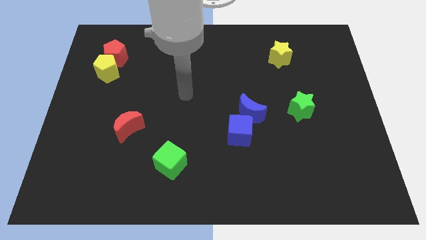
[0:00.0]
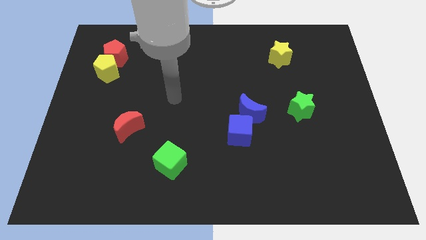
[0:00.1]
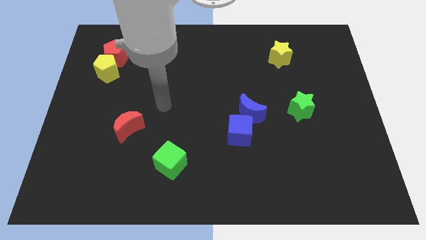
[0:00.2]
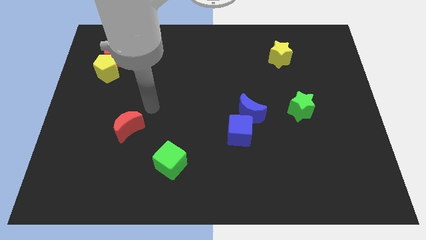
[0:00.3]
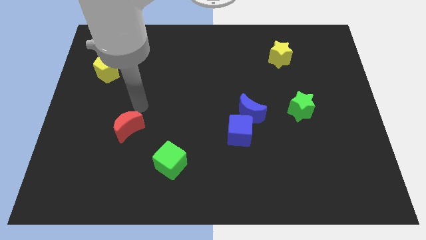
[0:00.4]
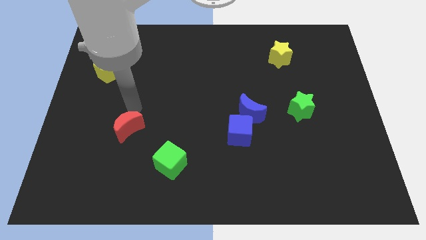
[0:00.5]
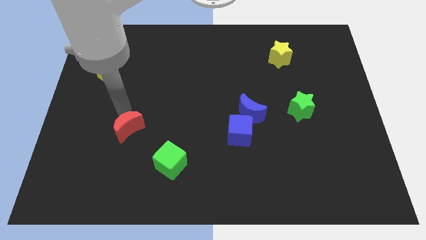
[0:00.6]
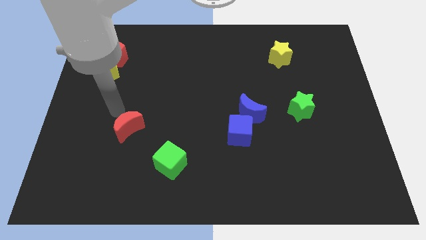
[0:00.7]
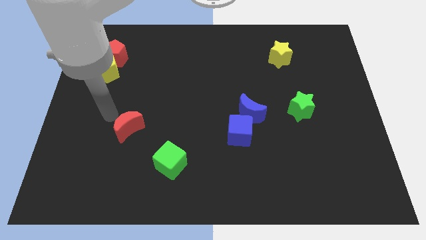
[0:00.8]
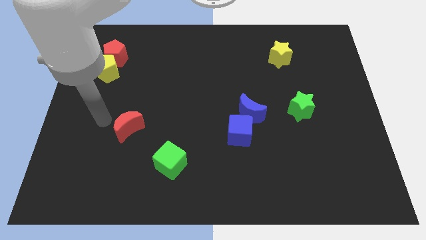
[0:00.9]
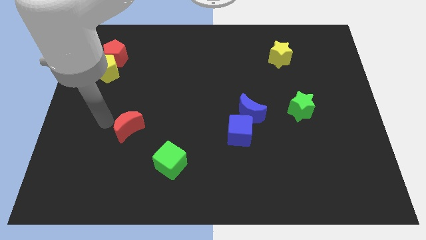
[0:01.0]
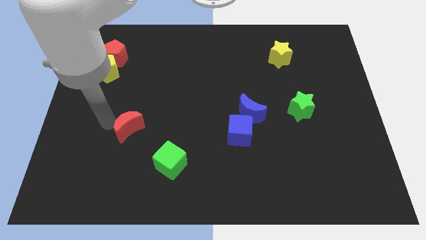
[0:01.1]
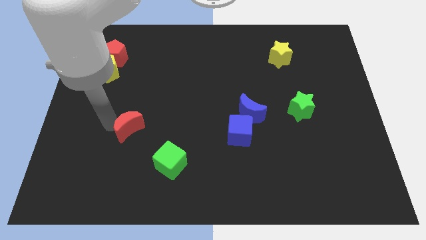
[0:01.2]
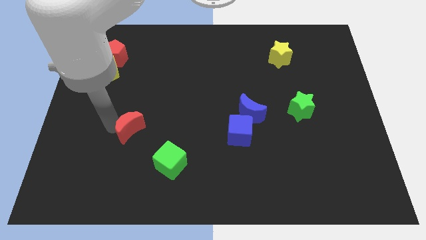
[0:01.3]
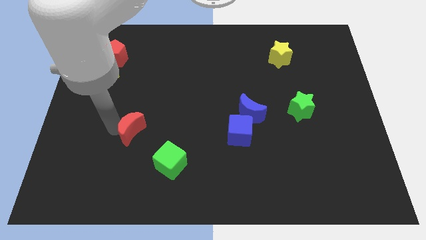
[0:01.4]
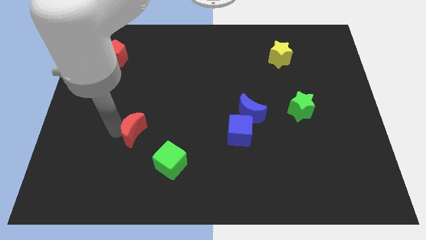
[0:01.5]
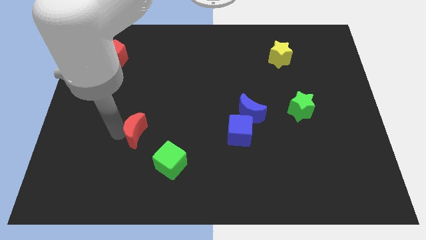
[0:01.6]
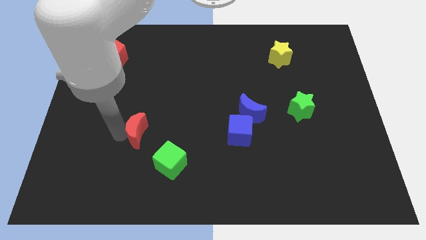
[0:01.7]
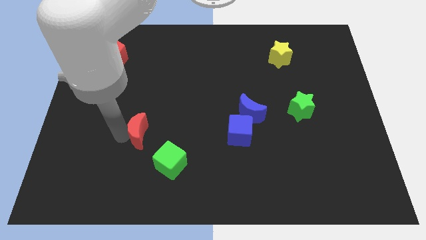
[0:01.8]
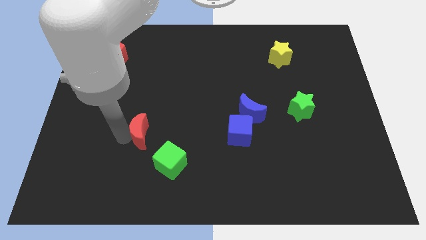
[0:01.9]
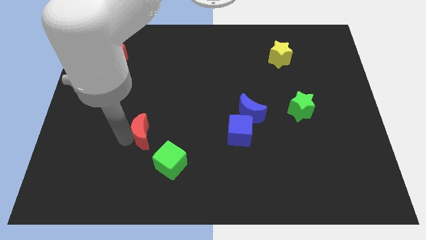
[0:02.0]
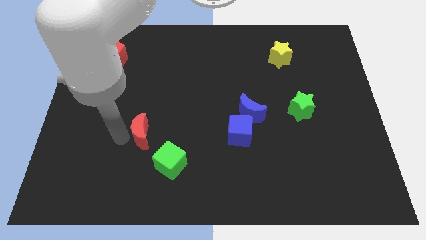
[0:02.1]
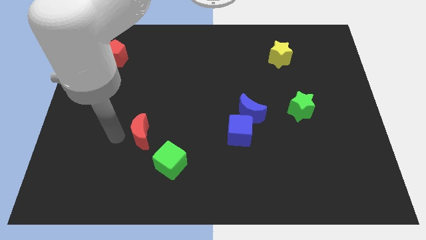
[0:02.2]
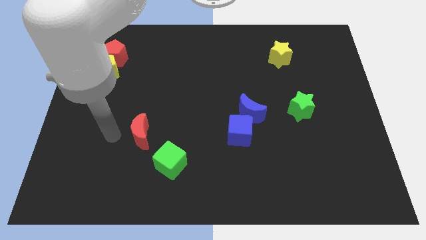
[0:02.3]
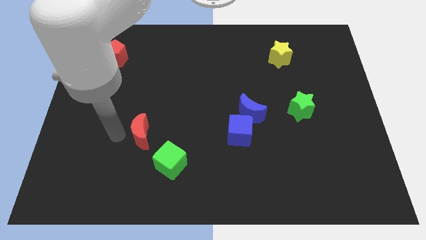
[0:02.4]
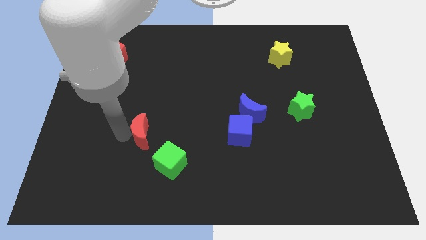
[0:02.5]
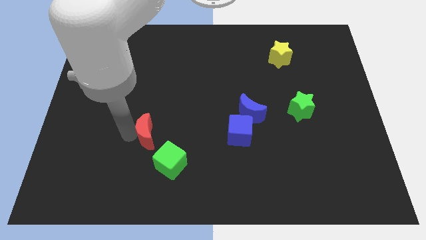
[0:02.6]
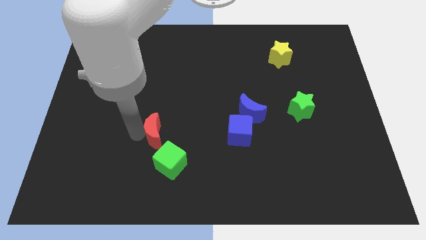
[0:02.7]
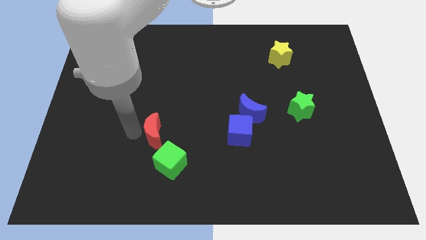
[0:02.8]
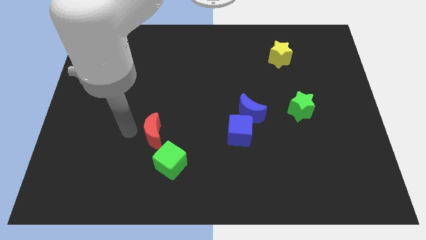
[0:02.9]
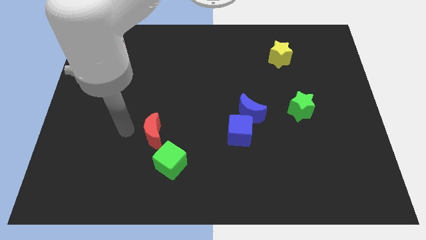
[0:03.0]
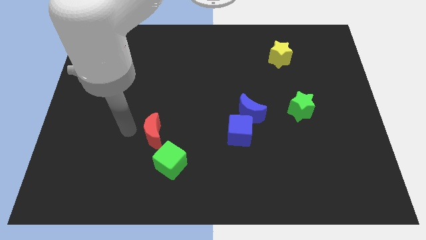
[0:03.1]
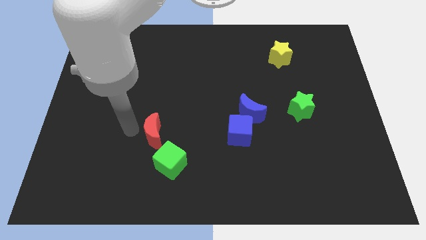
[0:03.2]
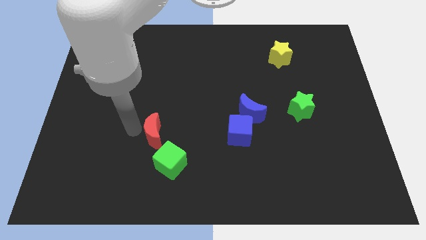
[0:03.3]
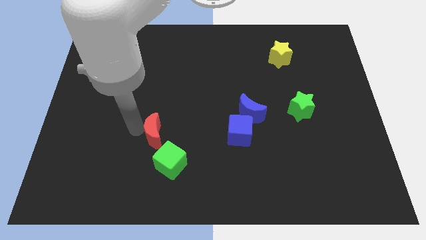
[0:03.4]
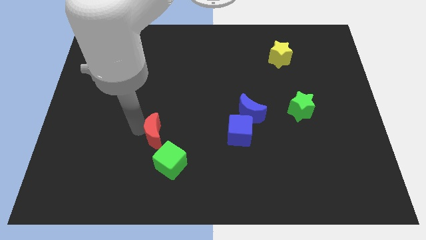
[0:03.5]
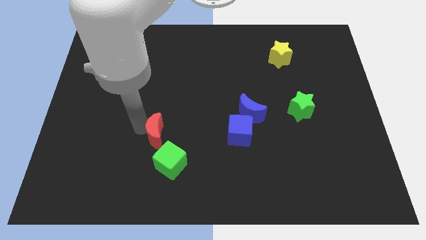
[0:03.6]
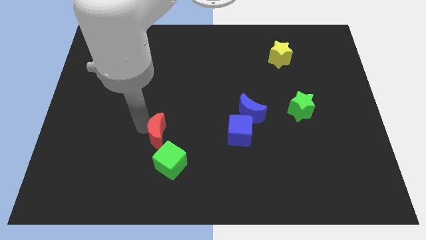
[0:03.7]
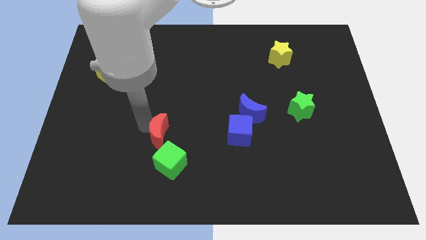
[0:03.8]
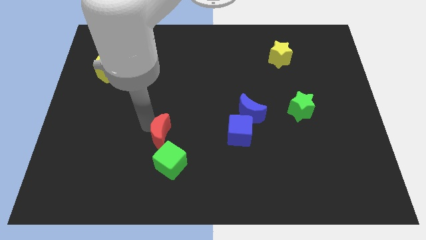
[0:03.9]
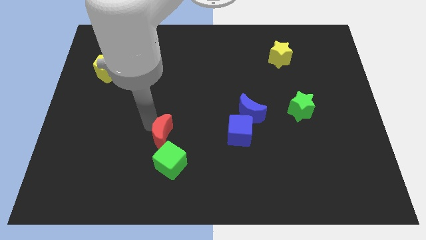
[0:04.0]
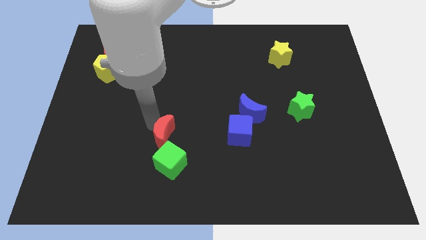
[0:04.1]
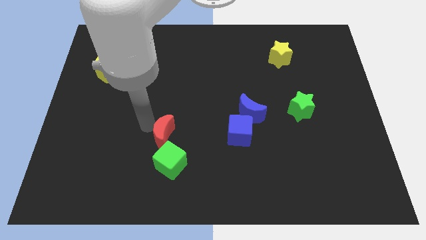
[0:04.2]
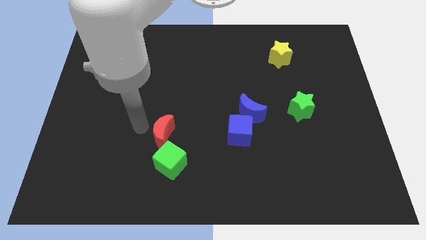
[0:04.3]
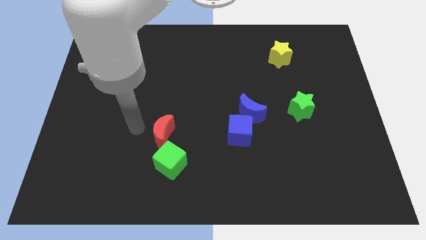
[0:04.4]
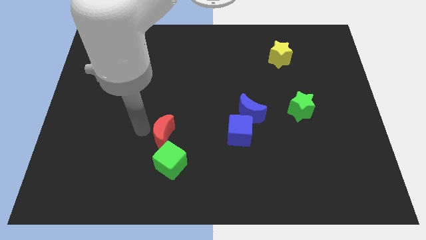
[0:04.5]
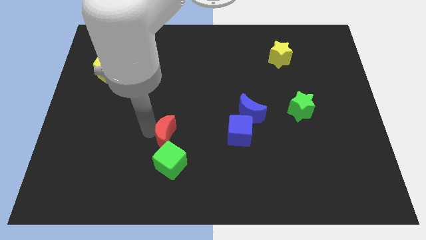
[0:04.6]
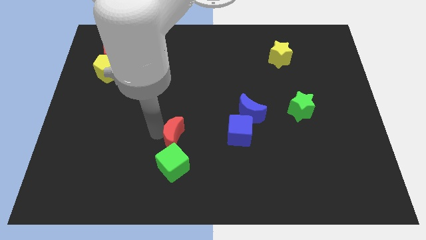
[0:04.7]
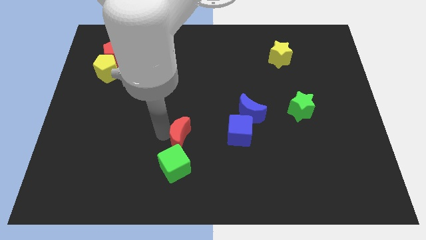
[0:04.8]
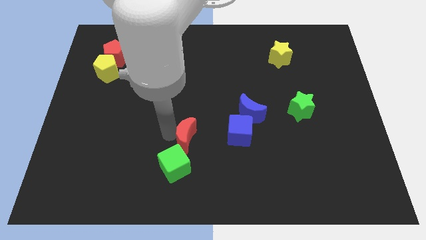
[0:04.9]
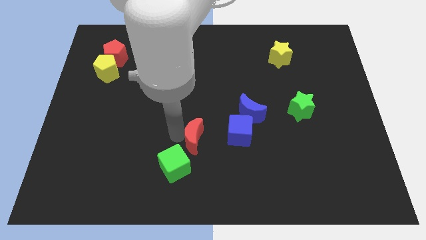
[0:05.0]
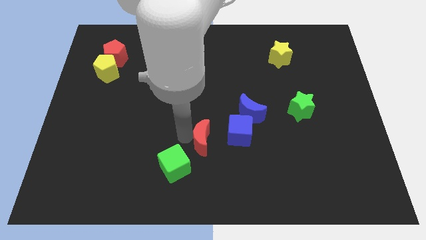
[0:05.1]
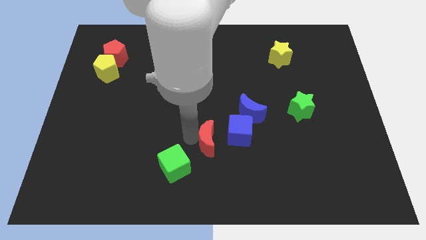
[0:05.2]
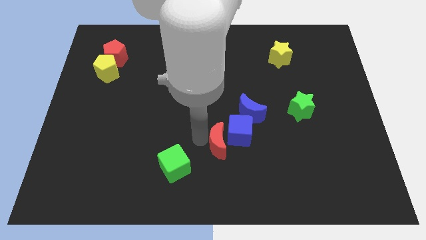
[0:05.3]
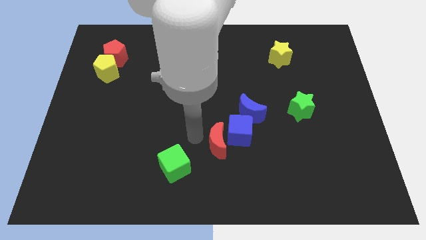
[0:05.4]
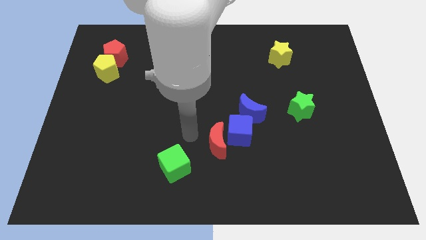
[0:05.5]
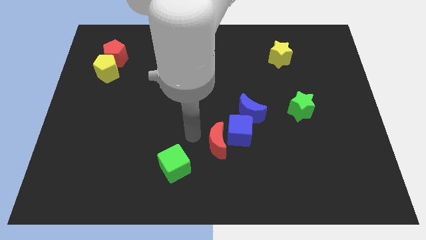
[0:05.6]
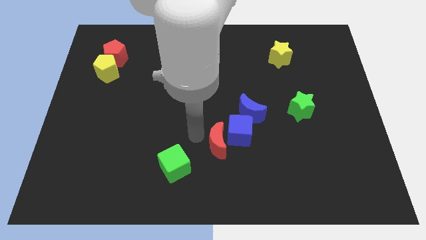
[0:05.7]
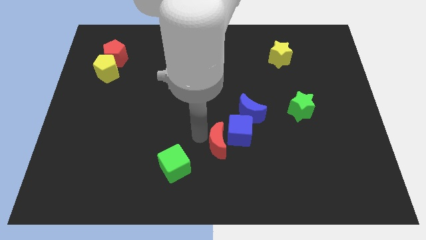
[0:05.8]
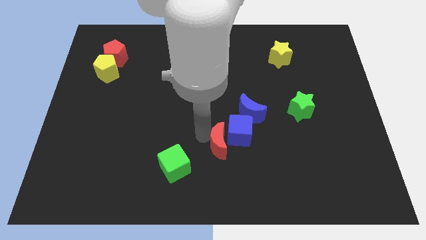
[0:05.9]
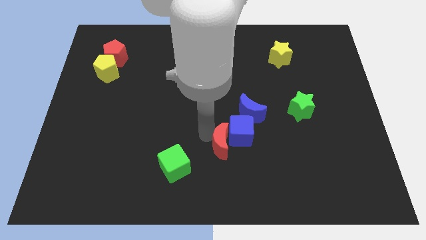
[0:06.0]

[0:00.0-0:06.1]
slide the red moon to the right

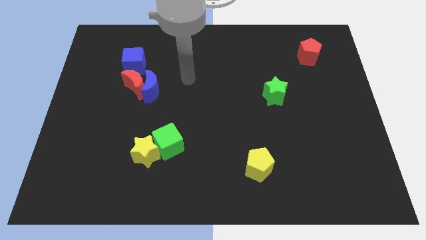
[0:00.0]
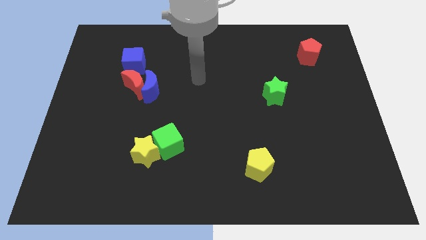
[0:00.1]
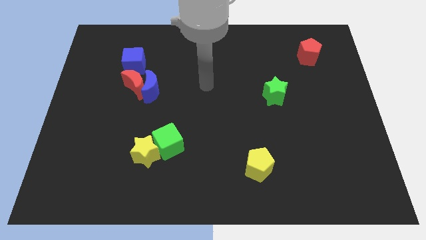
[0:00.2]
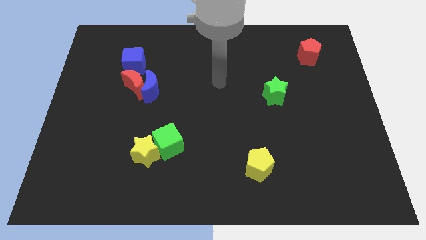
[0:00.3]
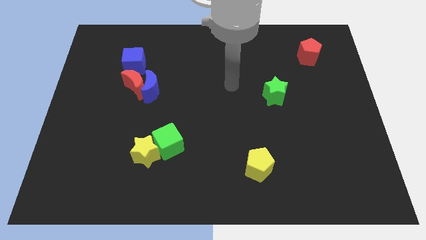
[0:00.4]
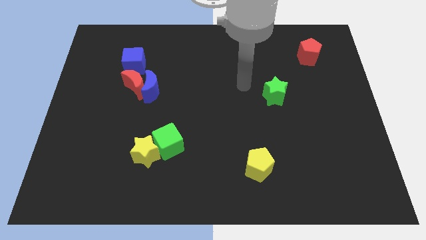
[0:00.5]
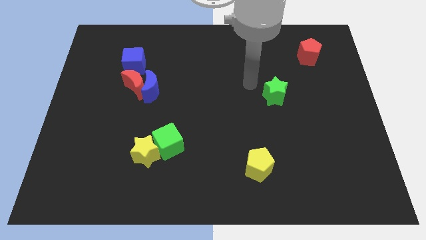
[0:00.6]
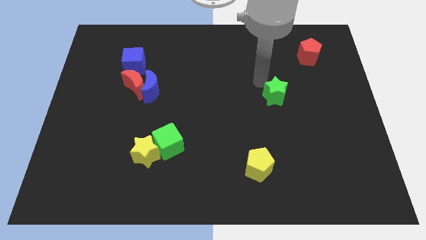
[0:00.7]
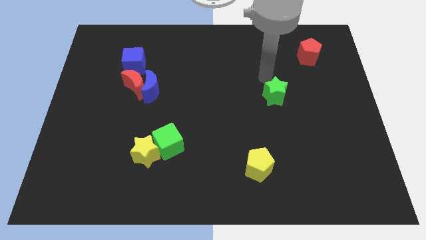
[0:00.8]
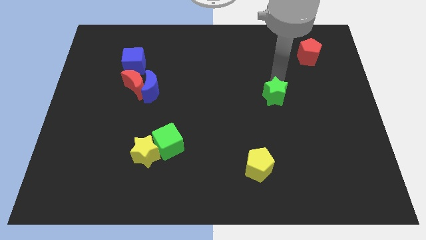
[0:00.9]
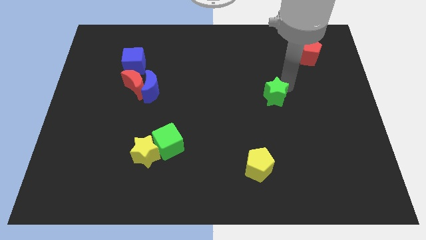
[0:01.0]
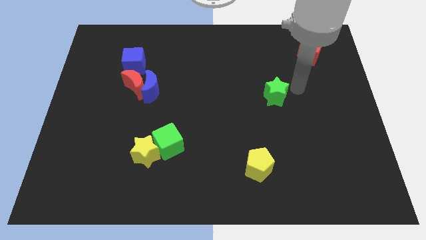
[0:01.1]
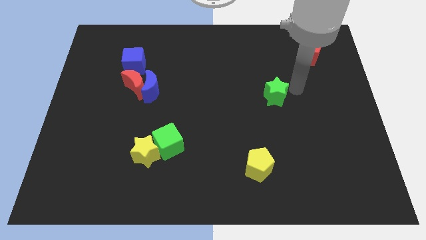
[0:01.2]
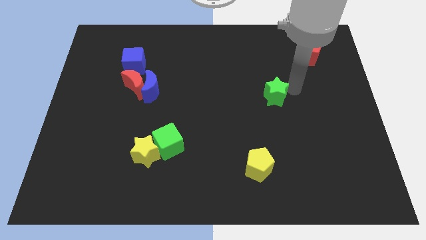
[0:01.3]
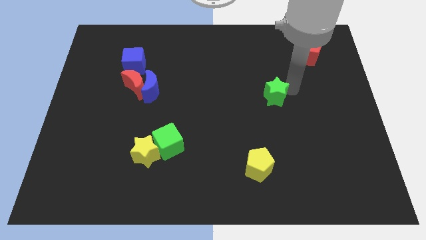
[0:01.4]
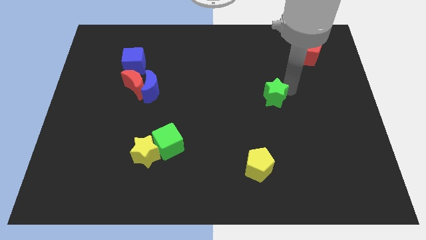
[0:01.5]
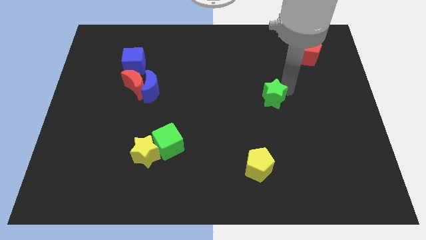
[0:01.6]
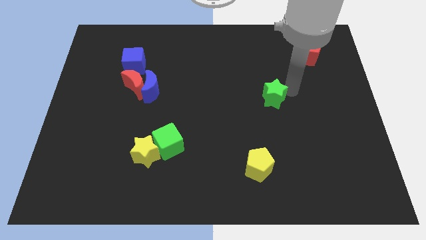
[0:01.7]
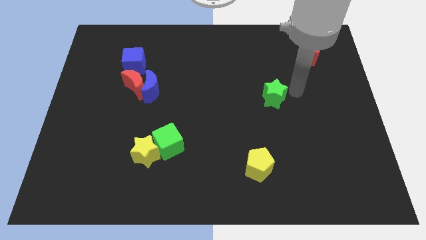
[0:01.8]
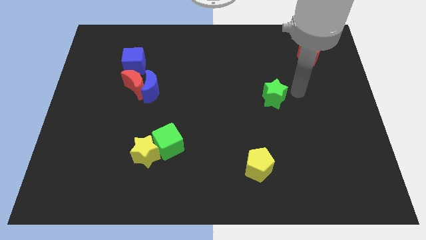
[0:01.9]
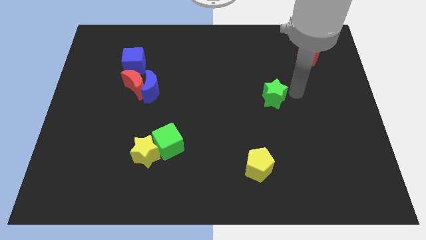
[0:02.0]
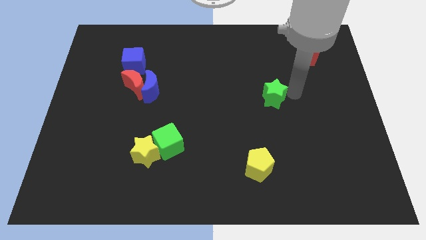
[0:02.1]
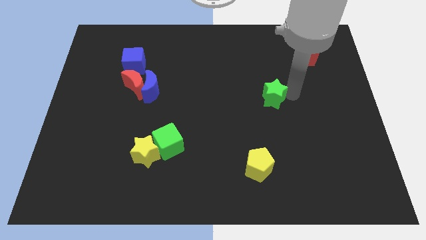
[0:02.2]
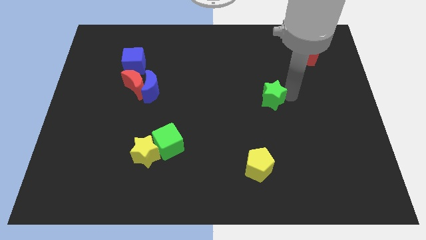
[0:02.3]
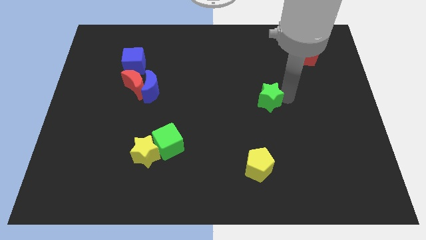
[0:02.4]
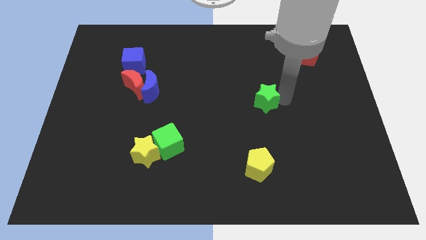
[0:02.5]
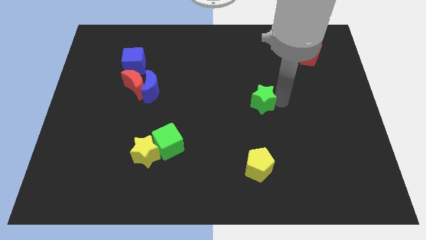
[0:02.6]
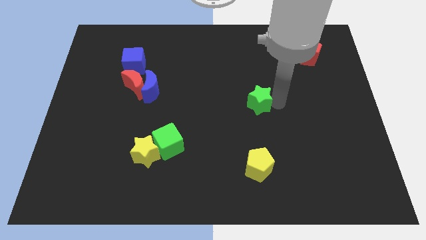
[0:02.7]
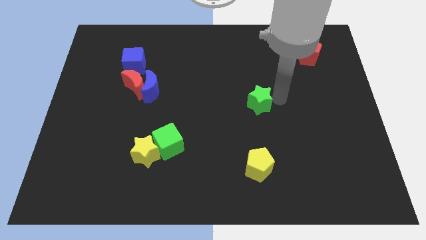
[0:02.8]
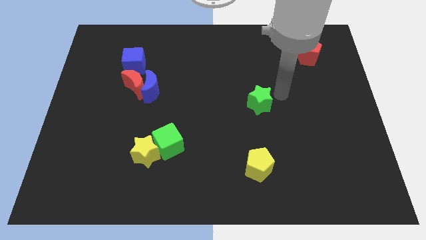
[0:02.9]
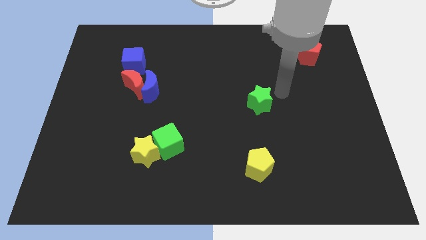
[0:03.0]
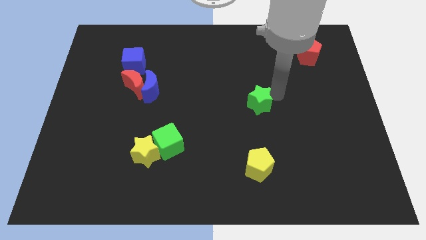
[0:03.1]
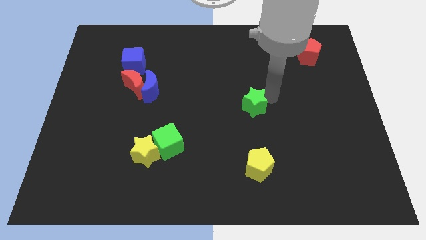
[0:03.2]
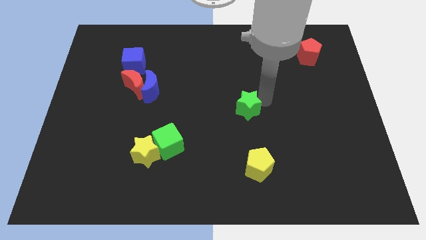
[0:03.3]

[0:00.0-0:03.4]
slightly push the green star downwards and left diagonally
